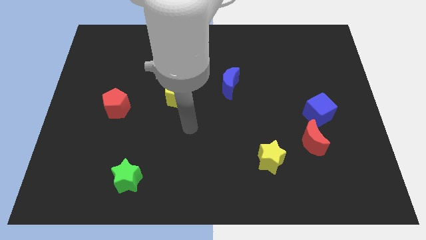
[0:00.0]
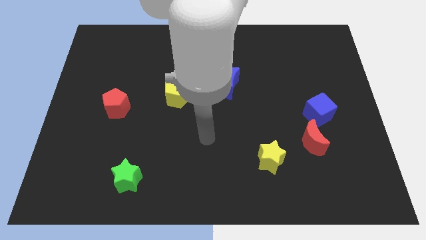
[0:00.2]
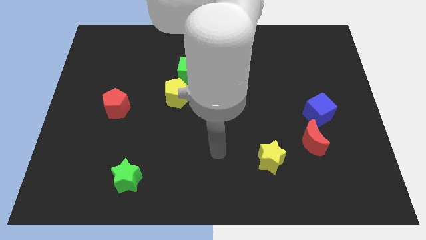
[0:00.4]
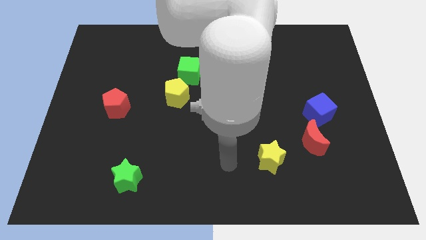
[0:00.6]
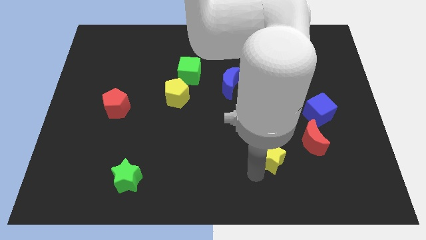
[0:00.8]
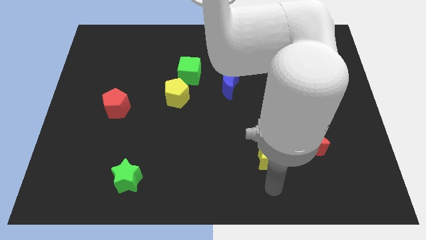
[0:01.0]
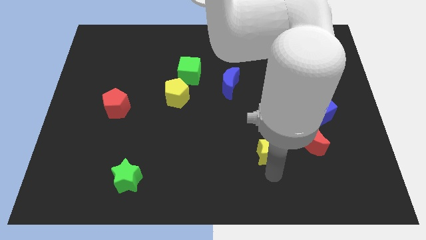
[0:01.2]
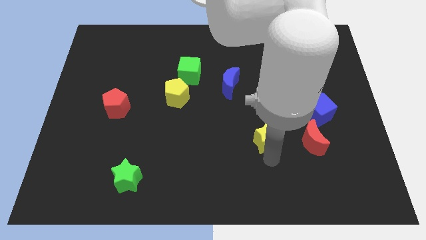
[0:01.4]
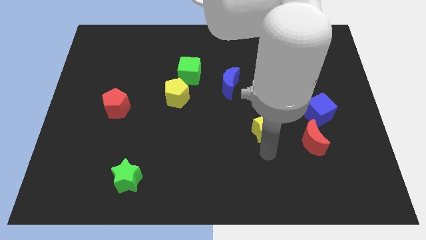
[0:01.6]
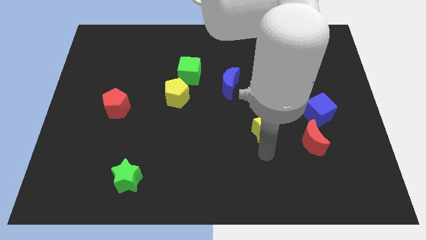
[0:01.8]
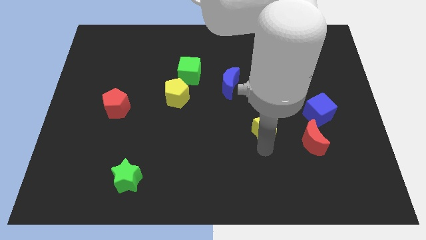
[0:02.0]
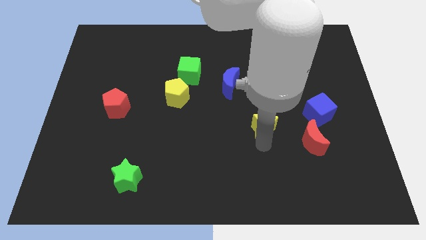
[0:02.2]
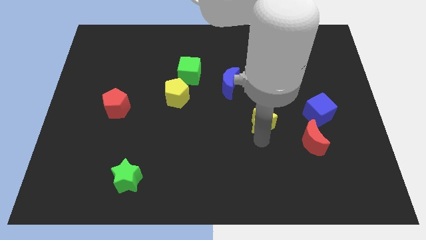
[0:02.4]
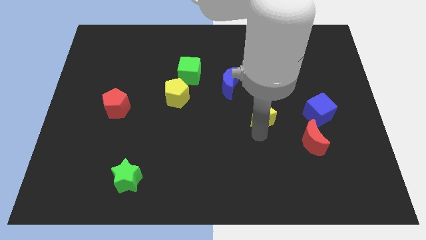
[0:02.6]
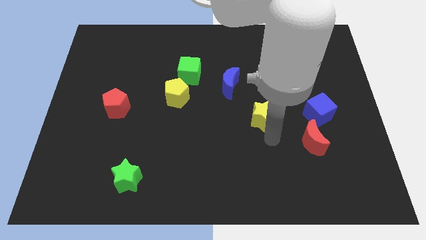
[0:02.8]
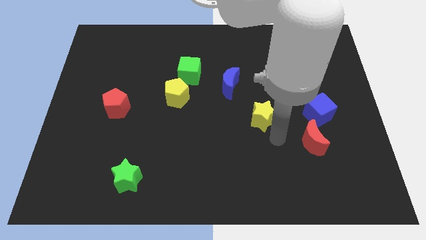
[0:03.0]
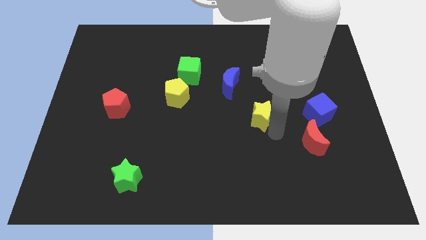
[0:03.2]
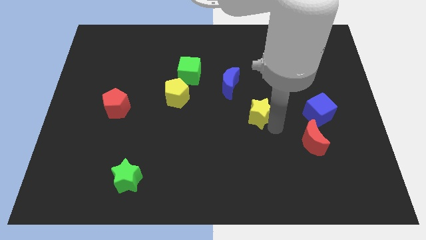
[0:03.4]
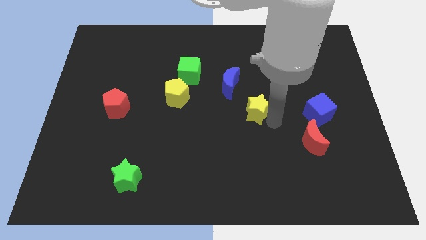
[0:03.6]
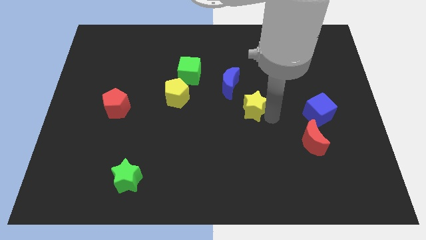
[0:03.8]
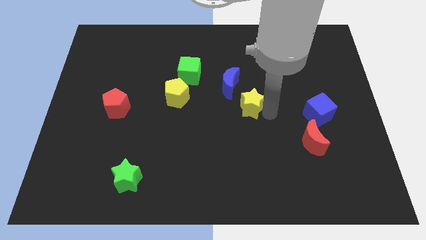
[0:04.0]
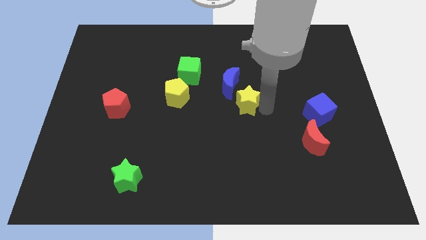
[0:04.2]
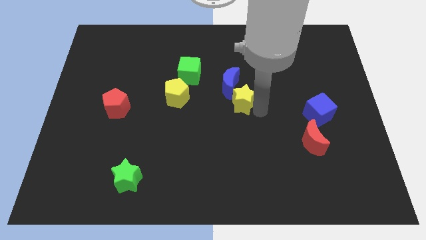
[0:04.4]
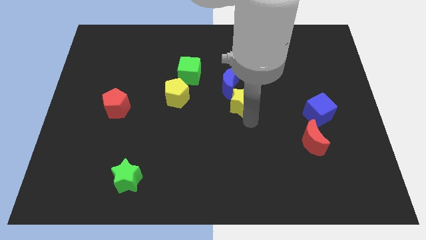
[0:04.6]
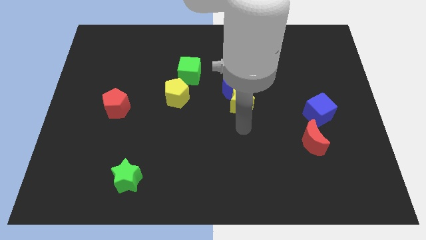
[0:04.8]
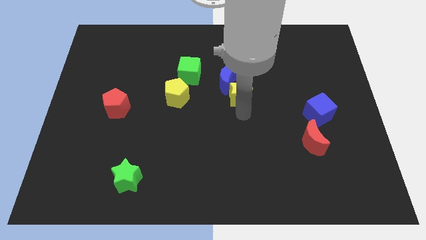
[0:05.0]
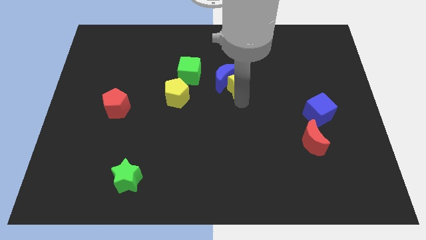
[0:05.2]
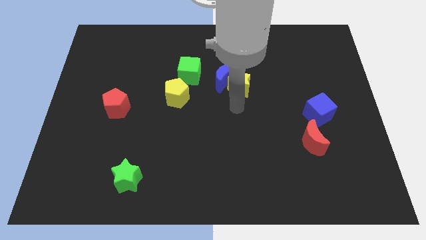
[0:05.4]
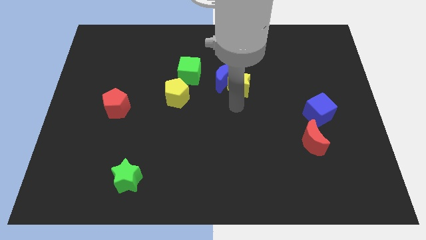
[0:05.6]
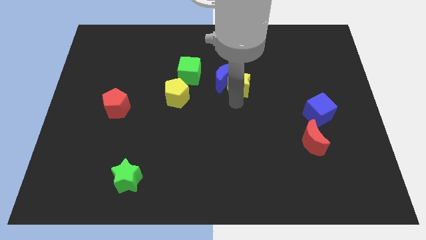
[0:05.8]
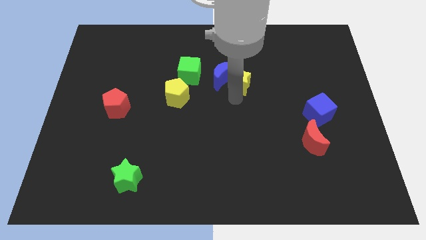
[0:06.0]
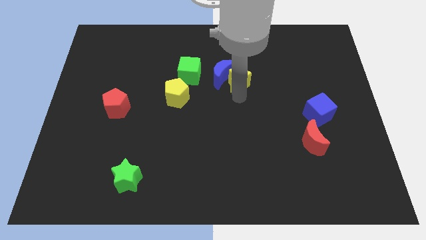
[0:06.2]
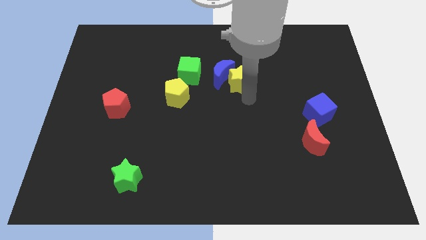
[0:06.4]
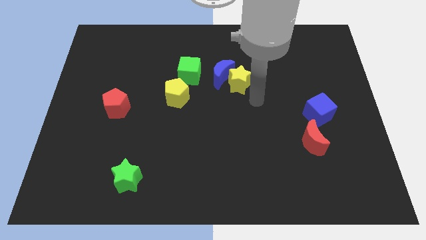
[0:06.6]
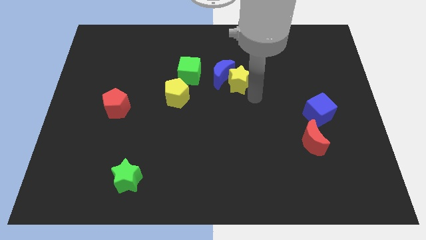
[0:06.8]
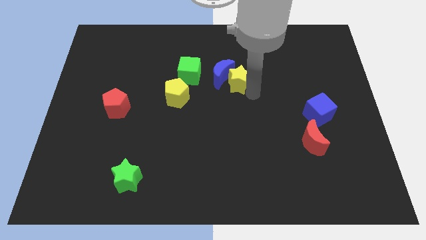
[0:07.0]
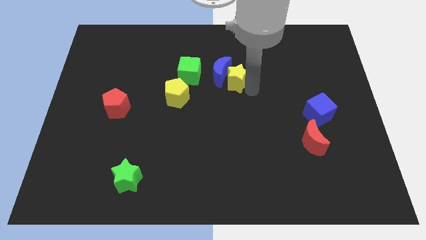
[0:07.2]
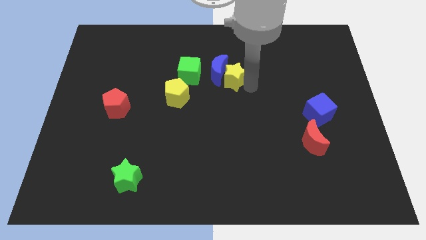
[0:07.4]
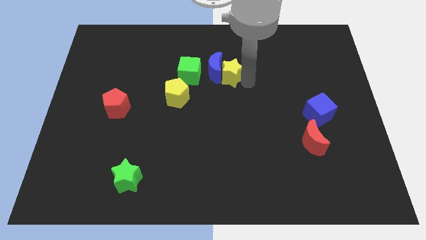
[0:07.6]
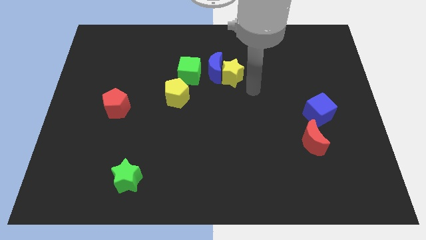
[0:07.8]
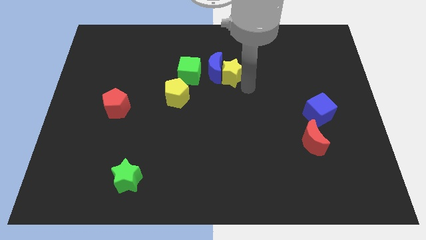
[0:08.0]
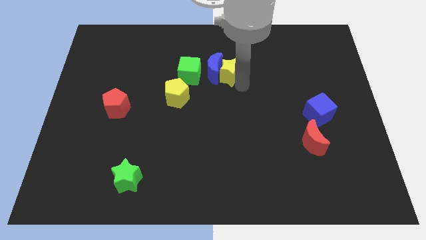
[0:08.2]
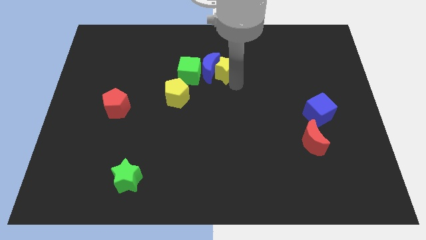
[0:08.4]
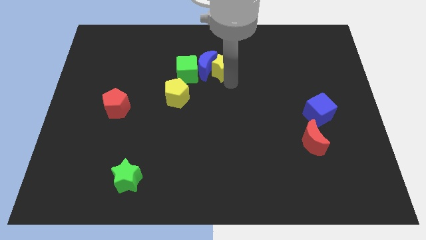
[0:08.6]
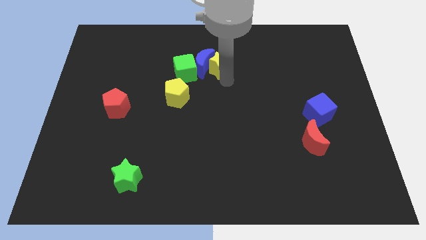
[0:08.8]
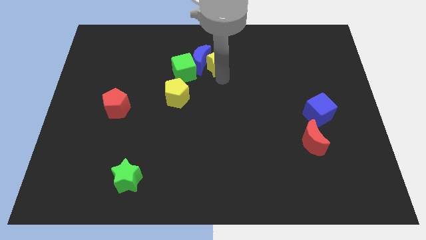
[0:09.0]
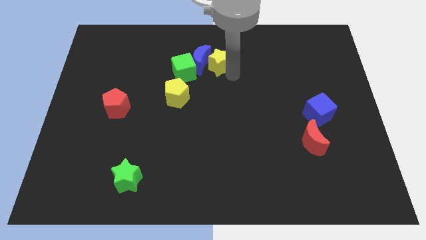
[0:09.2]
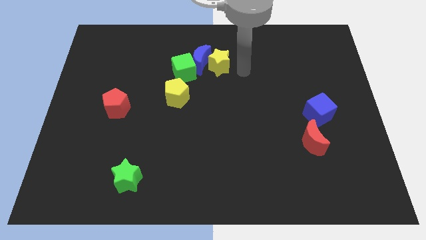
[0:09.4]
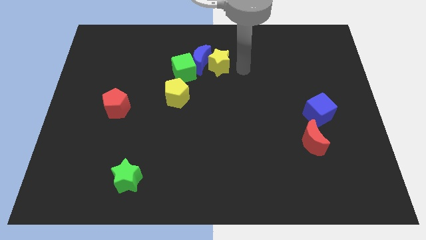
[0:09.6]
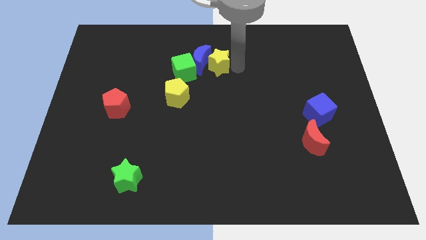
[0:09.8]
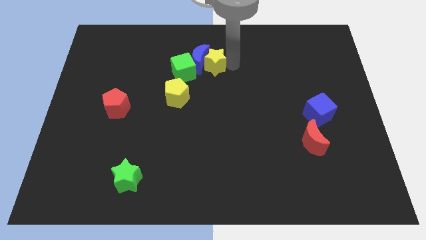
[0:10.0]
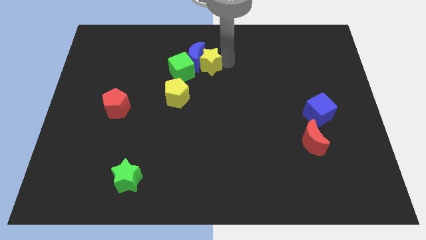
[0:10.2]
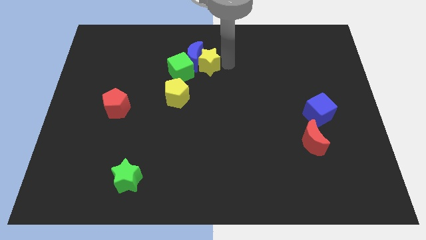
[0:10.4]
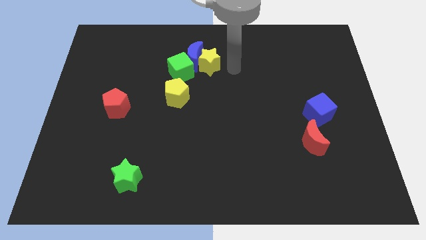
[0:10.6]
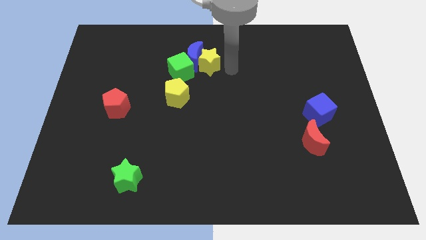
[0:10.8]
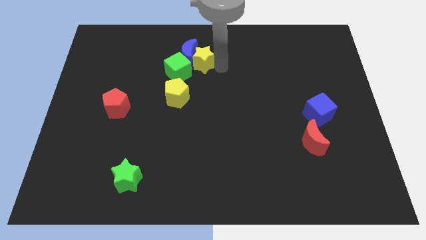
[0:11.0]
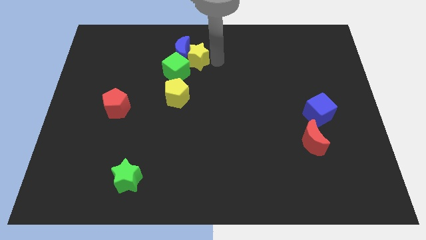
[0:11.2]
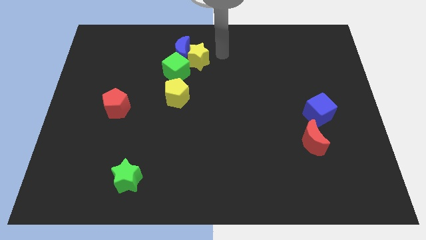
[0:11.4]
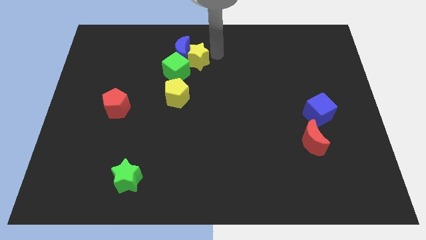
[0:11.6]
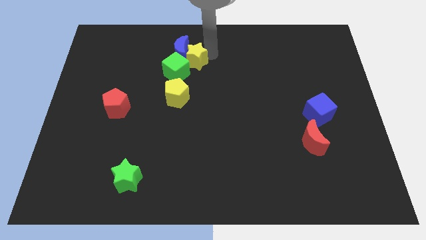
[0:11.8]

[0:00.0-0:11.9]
slide the yellow star above the yellow pentagon

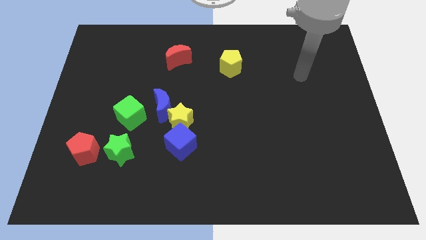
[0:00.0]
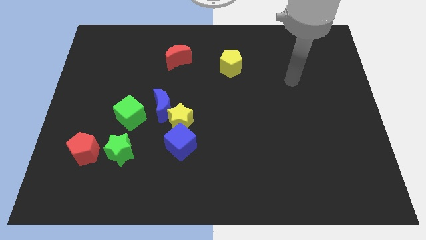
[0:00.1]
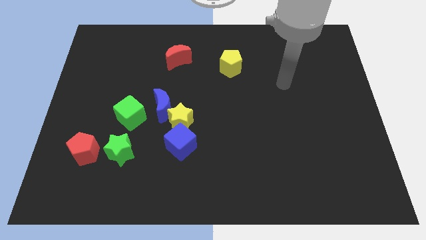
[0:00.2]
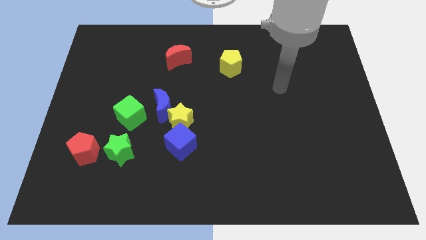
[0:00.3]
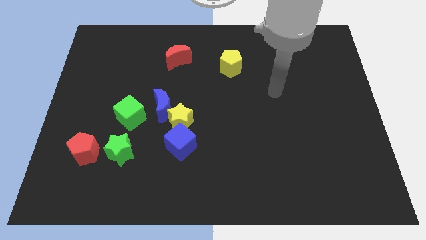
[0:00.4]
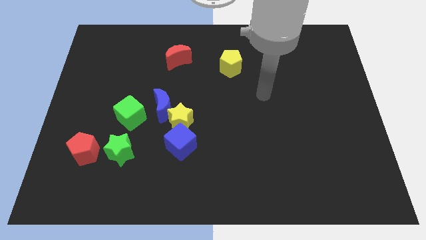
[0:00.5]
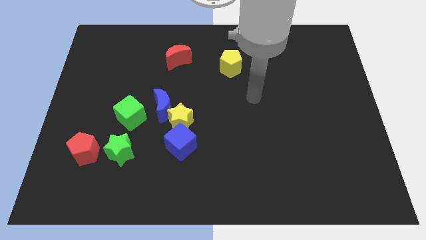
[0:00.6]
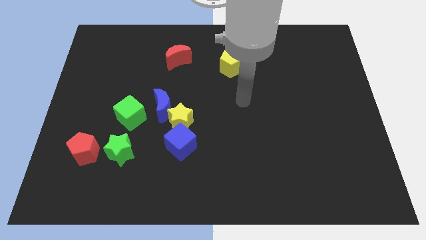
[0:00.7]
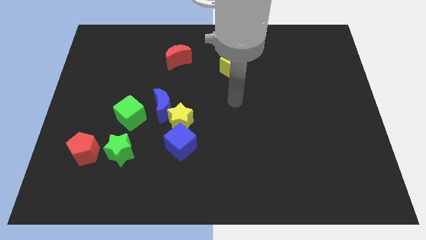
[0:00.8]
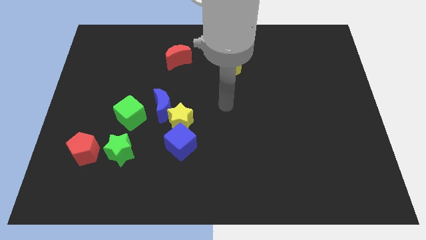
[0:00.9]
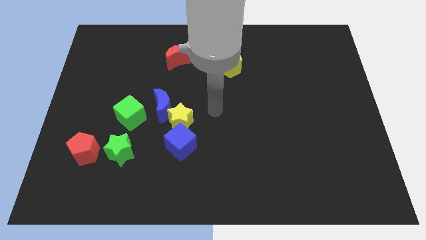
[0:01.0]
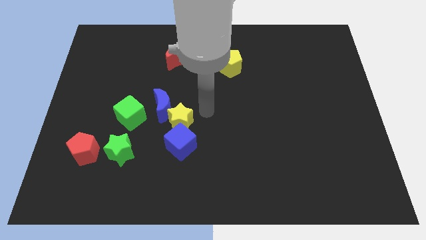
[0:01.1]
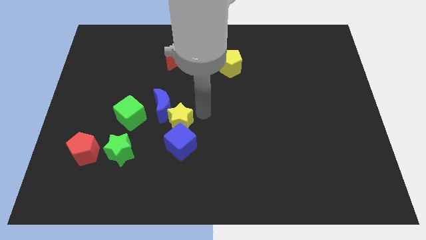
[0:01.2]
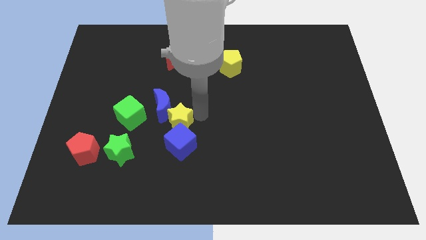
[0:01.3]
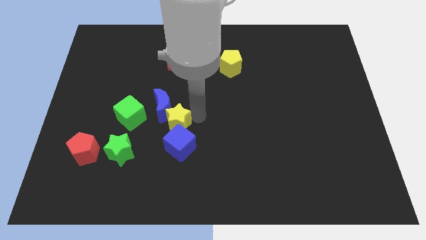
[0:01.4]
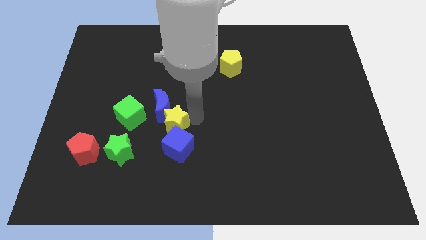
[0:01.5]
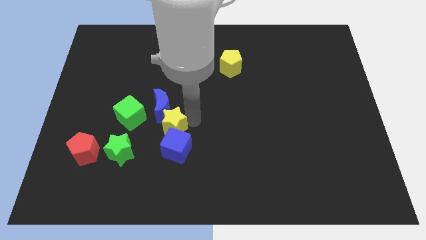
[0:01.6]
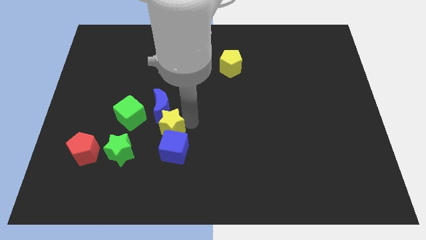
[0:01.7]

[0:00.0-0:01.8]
push the yellow star to the bottom right side of the green cube

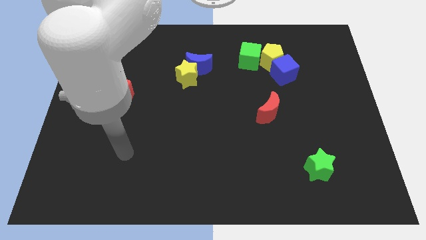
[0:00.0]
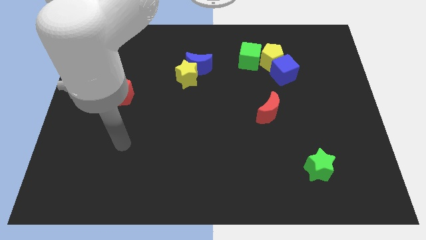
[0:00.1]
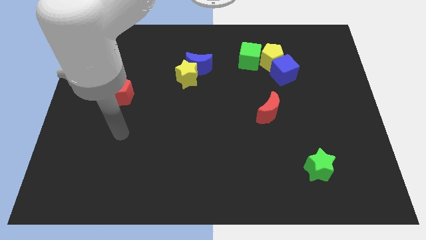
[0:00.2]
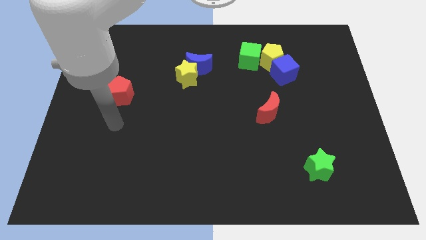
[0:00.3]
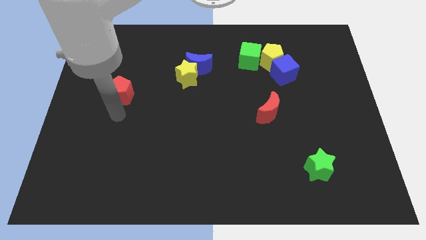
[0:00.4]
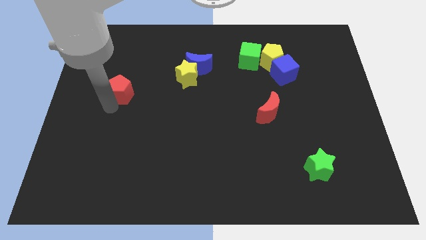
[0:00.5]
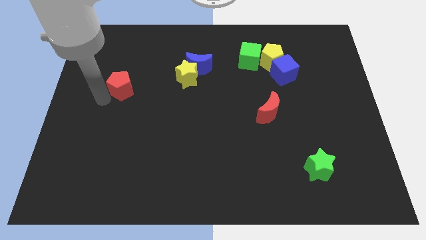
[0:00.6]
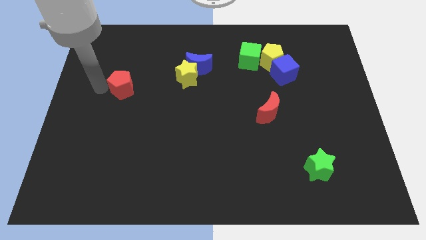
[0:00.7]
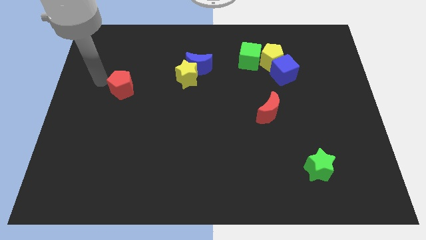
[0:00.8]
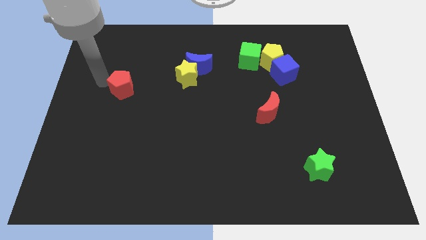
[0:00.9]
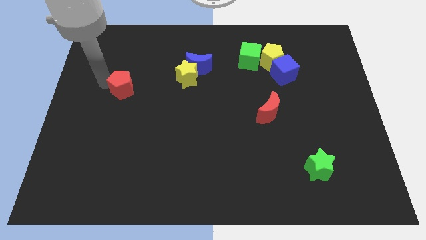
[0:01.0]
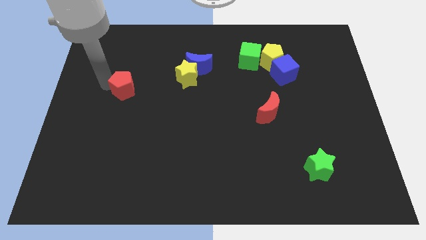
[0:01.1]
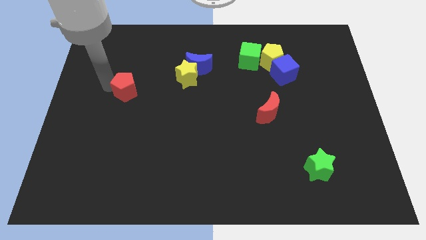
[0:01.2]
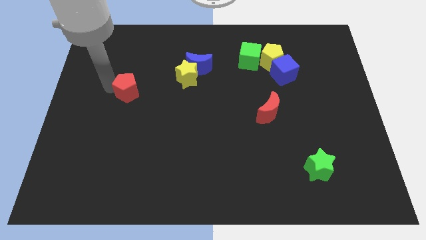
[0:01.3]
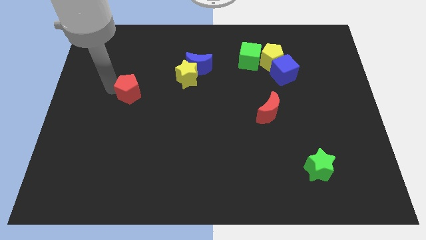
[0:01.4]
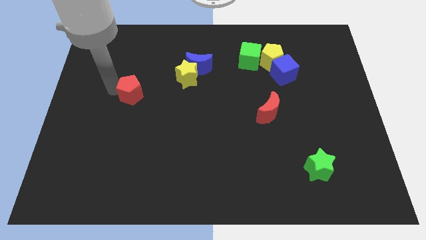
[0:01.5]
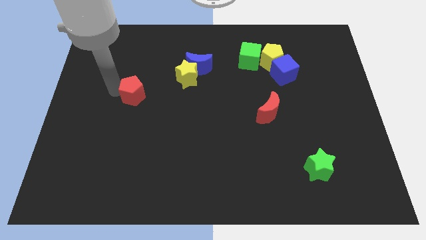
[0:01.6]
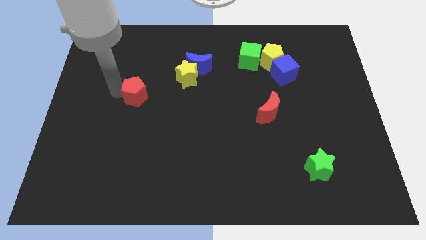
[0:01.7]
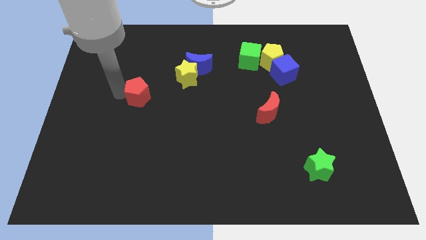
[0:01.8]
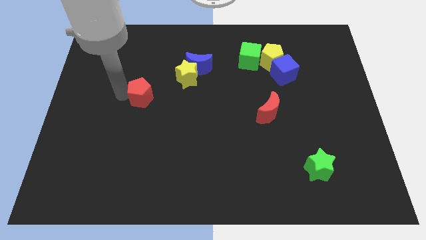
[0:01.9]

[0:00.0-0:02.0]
slide the red pentagon to the bottom left of the yellow star
